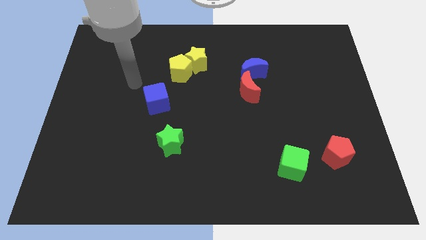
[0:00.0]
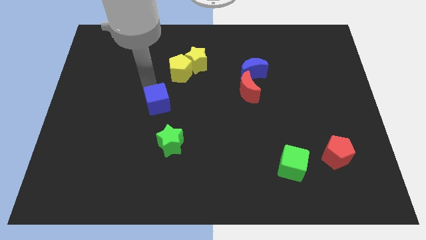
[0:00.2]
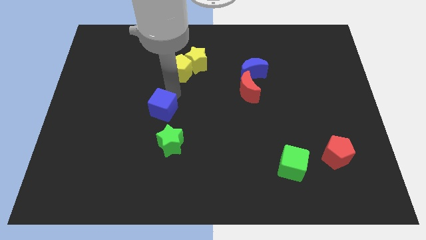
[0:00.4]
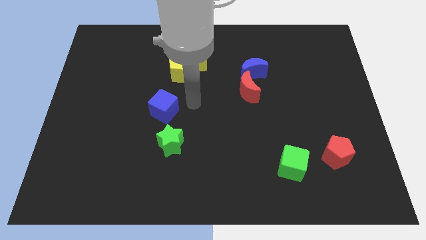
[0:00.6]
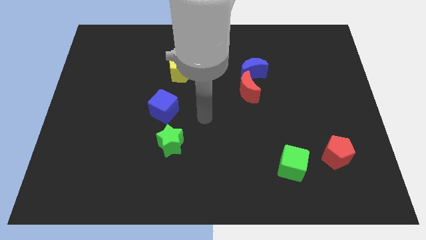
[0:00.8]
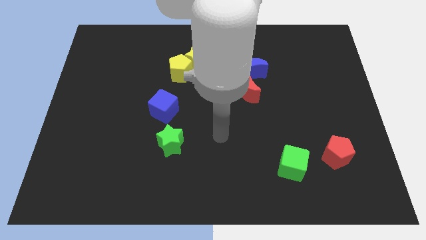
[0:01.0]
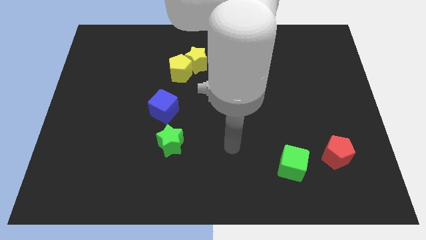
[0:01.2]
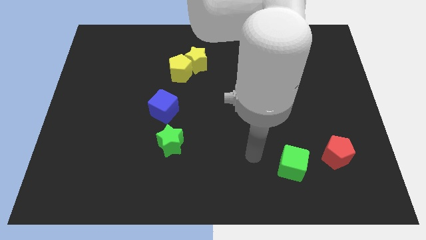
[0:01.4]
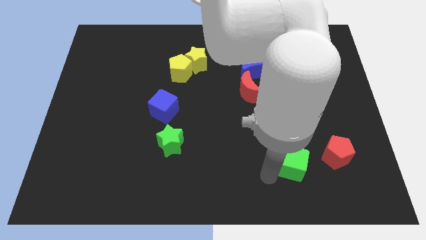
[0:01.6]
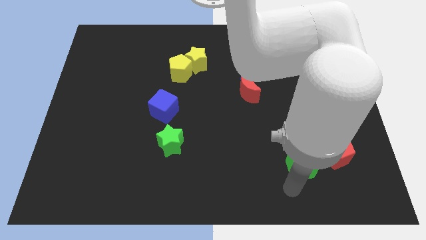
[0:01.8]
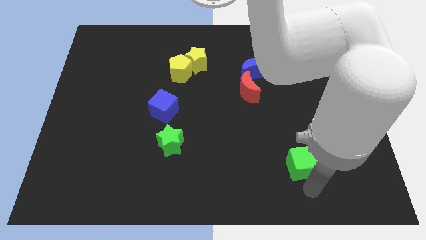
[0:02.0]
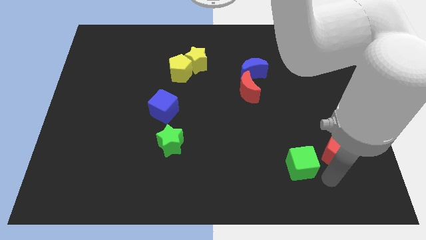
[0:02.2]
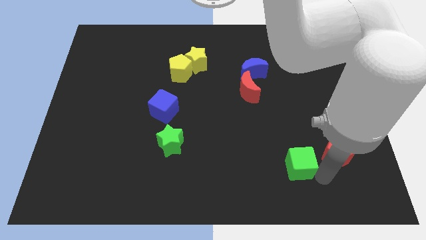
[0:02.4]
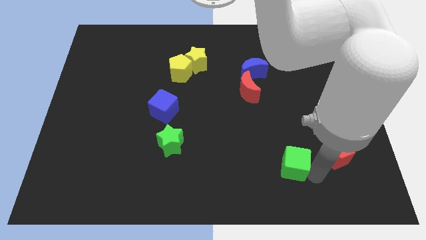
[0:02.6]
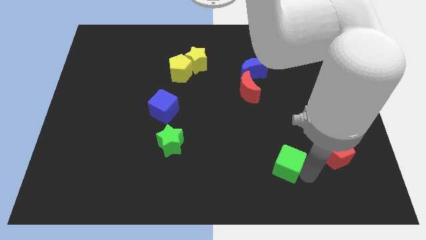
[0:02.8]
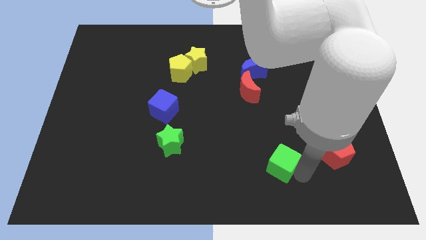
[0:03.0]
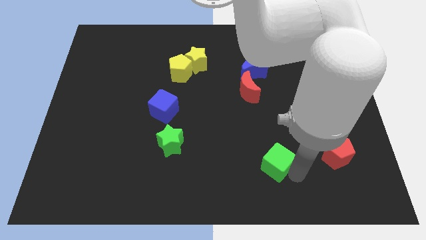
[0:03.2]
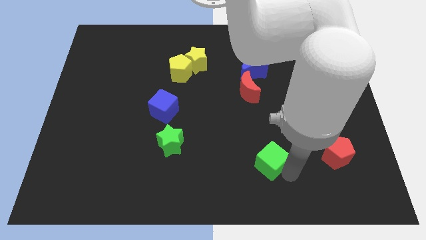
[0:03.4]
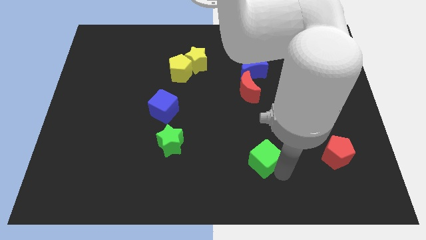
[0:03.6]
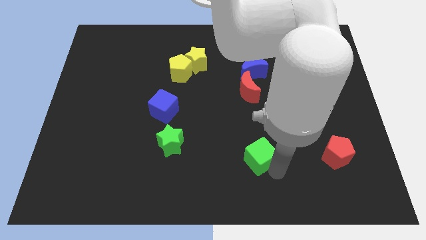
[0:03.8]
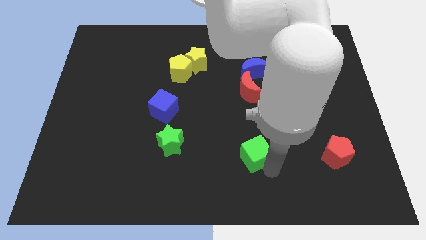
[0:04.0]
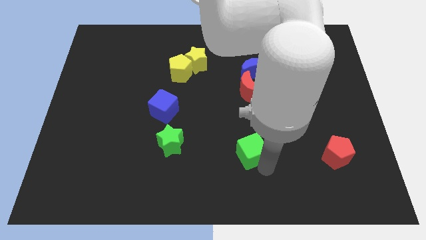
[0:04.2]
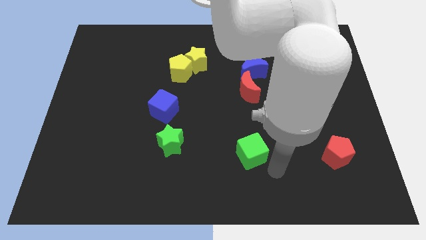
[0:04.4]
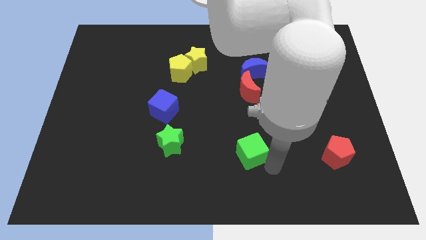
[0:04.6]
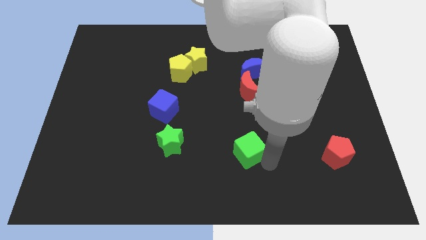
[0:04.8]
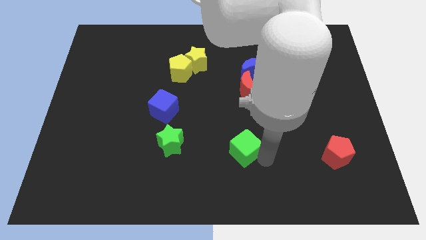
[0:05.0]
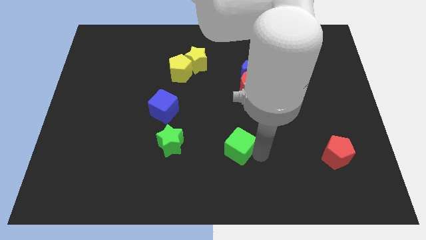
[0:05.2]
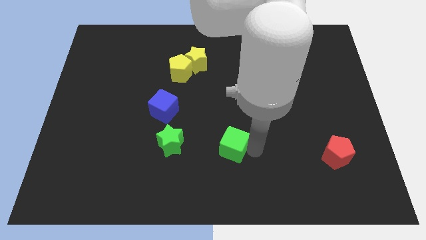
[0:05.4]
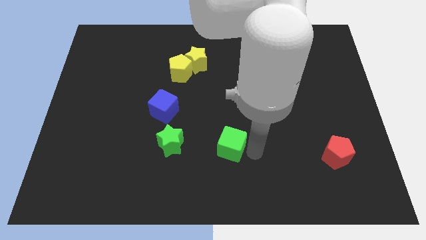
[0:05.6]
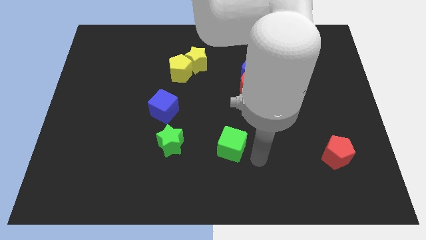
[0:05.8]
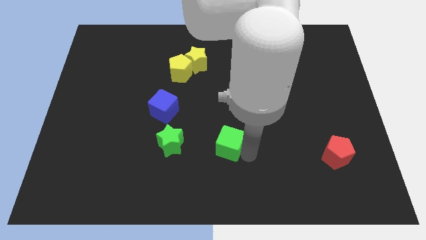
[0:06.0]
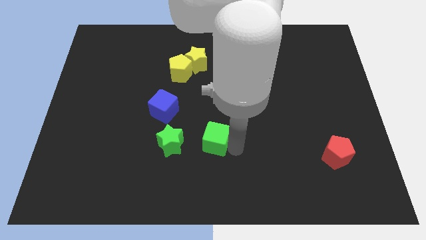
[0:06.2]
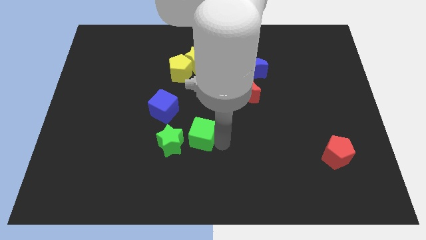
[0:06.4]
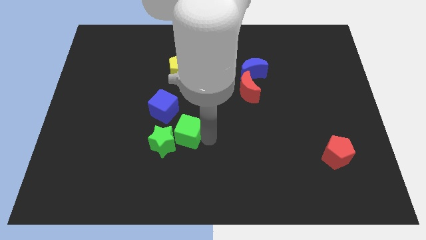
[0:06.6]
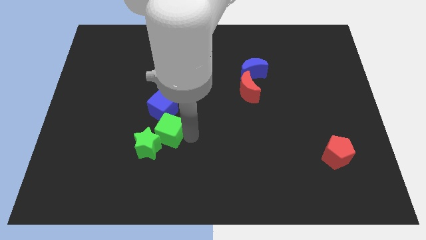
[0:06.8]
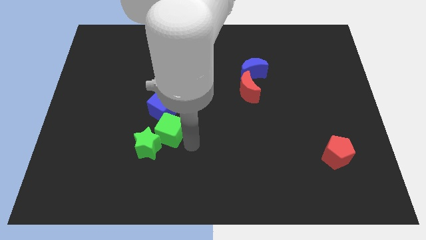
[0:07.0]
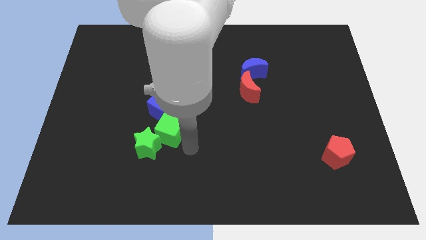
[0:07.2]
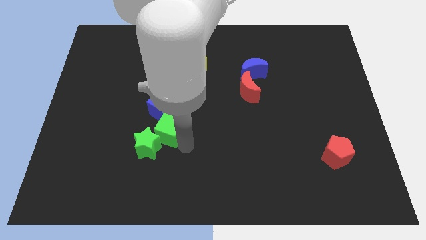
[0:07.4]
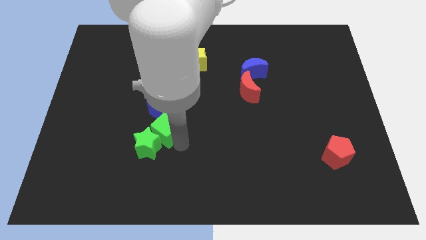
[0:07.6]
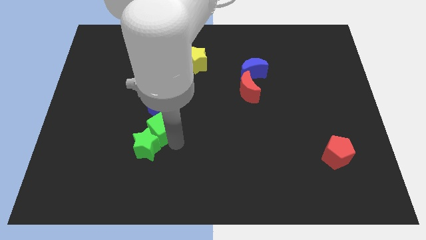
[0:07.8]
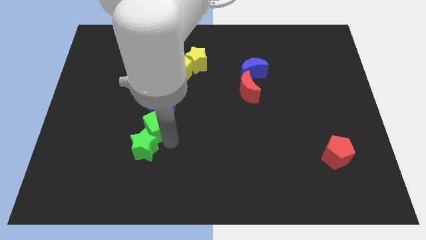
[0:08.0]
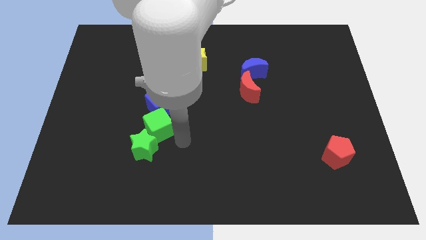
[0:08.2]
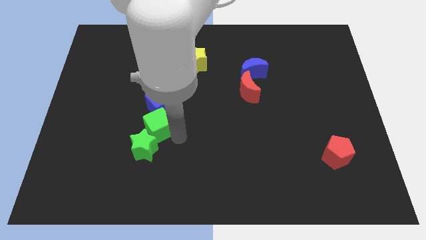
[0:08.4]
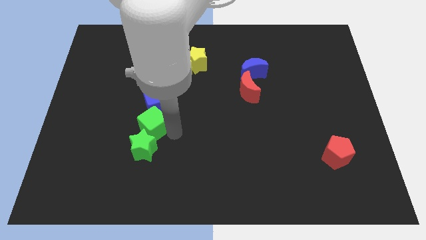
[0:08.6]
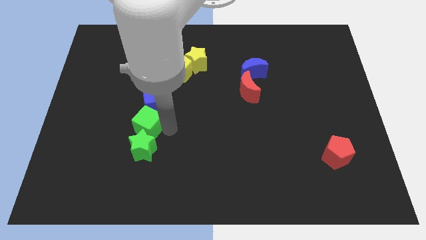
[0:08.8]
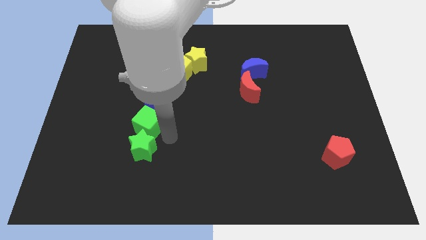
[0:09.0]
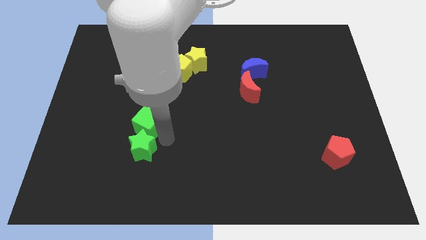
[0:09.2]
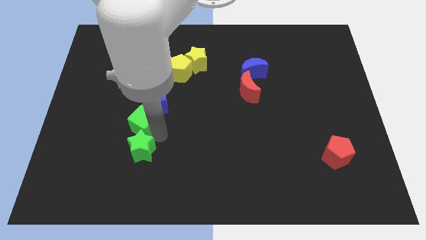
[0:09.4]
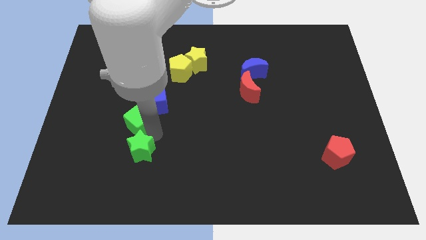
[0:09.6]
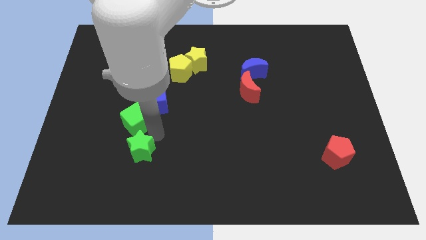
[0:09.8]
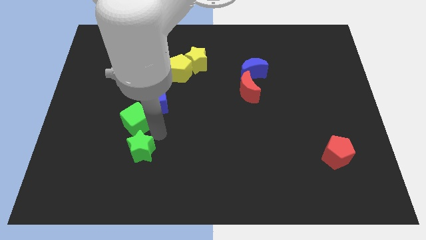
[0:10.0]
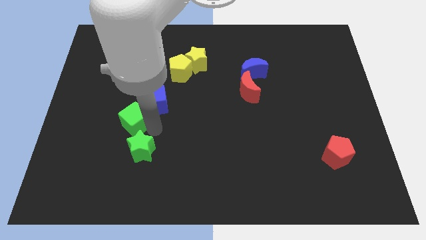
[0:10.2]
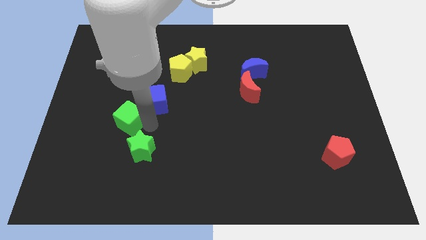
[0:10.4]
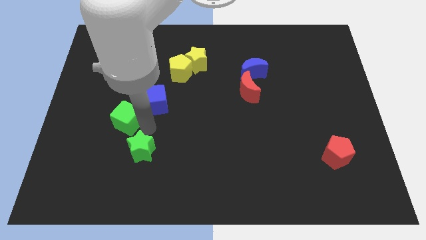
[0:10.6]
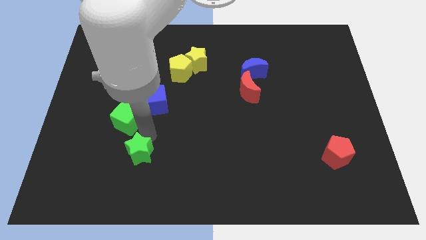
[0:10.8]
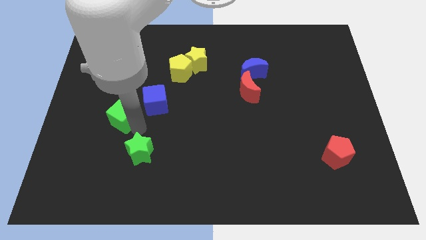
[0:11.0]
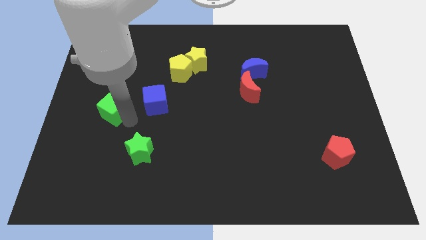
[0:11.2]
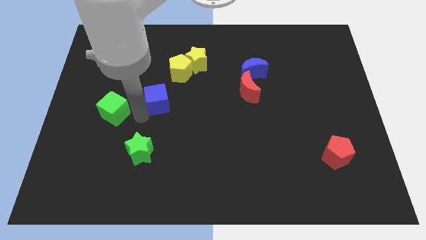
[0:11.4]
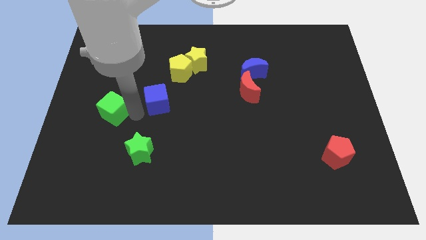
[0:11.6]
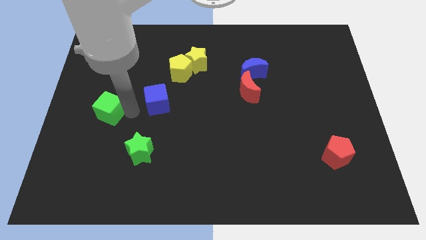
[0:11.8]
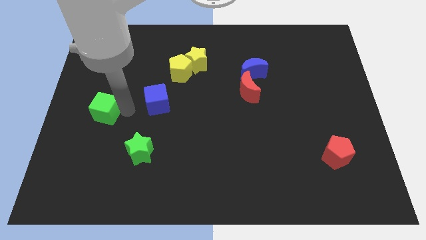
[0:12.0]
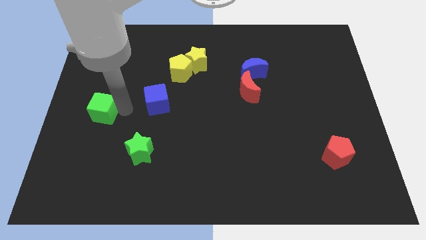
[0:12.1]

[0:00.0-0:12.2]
move the green cube to the left side of the board

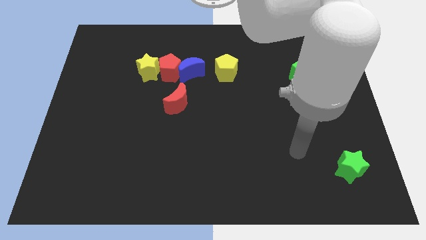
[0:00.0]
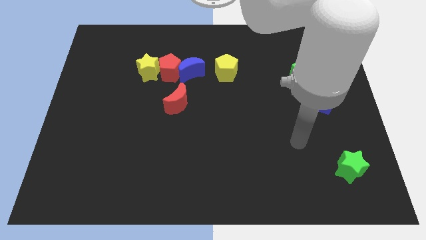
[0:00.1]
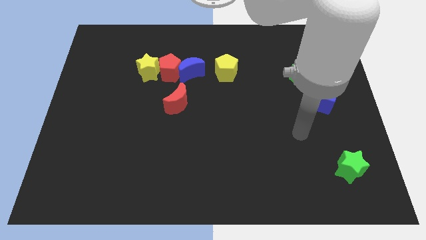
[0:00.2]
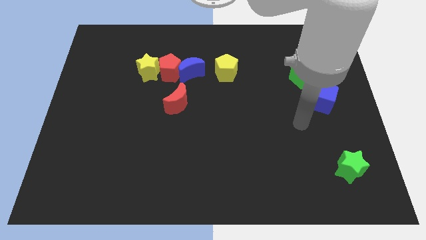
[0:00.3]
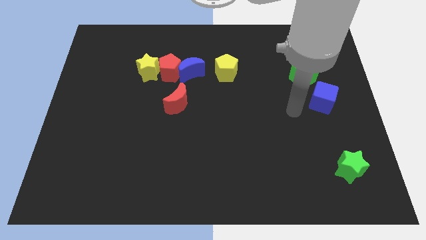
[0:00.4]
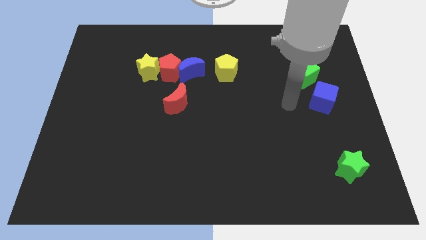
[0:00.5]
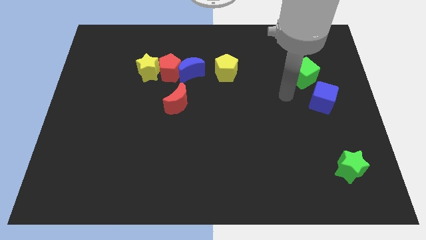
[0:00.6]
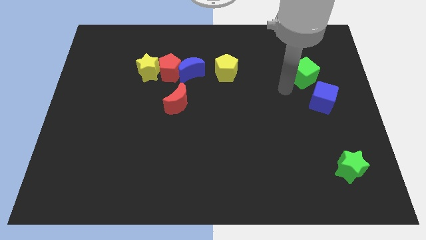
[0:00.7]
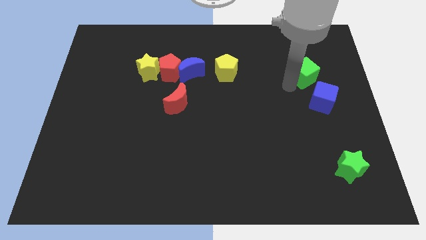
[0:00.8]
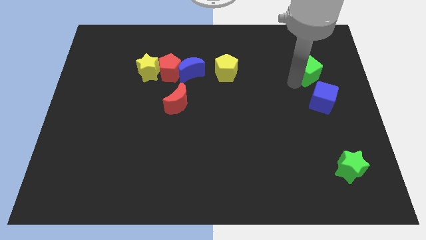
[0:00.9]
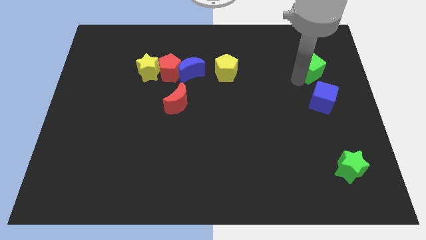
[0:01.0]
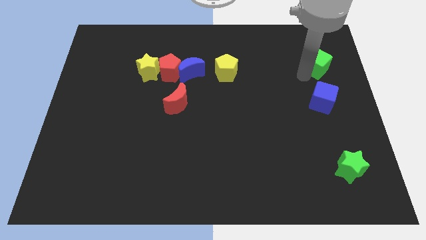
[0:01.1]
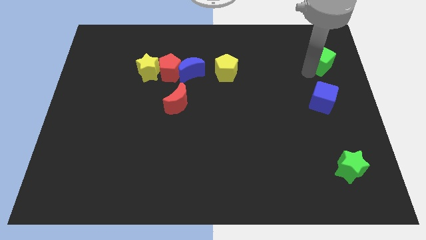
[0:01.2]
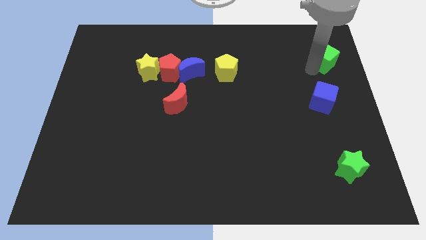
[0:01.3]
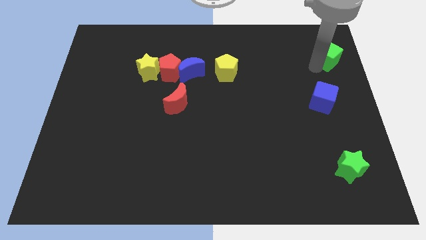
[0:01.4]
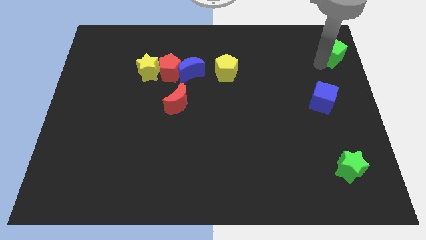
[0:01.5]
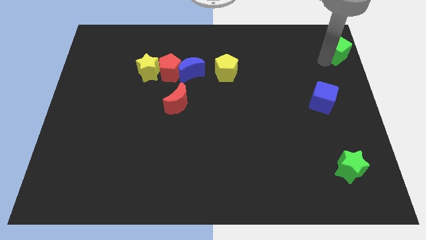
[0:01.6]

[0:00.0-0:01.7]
push the green cube to the top right of the board
